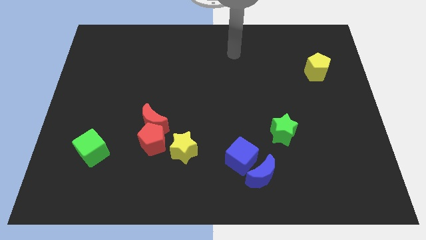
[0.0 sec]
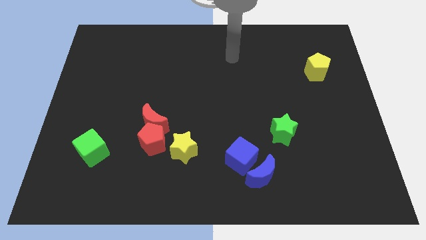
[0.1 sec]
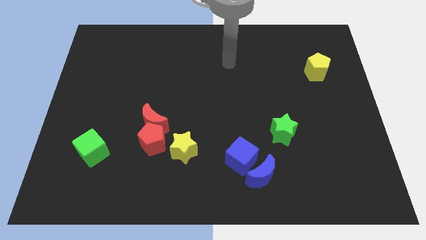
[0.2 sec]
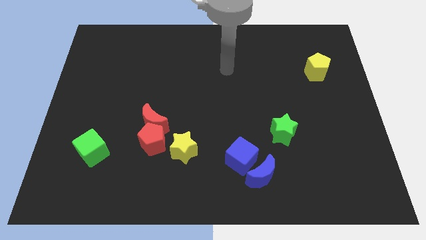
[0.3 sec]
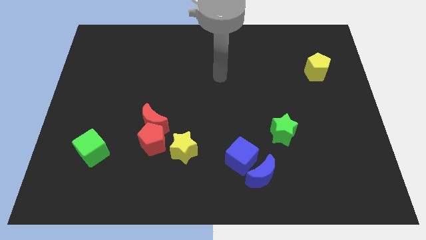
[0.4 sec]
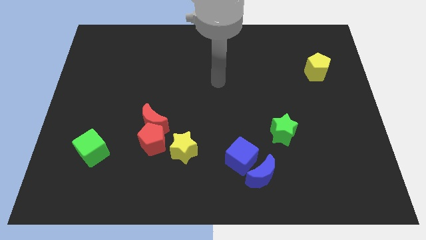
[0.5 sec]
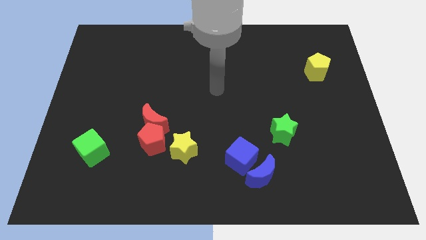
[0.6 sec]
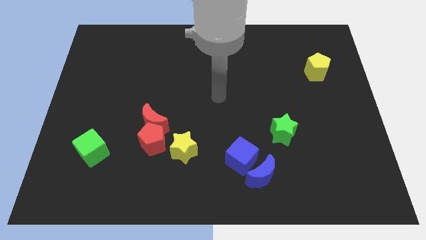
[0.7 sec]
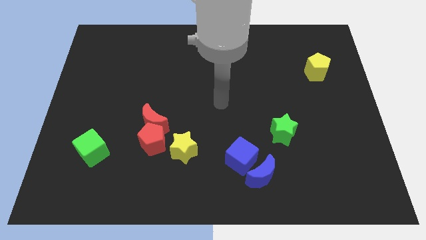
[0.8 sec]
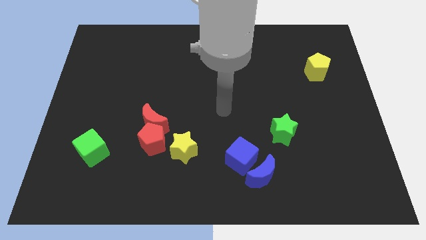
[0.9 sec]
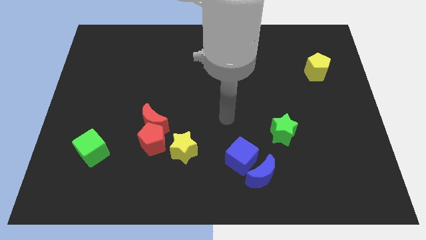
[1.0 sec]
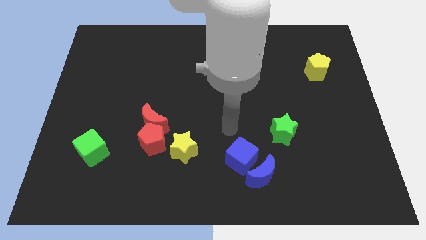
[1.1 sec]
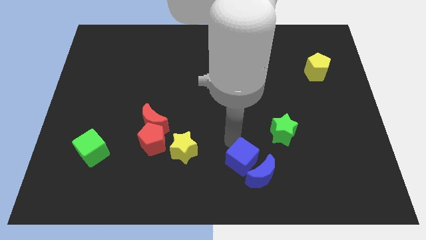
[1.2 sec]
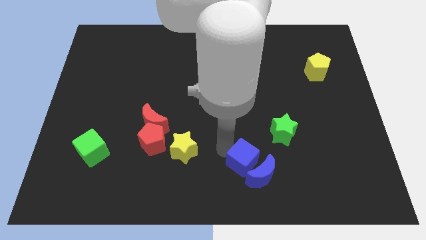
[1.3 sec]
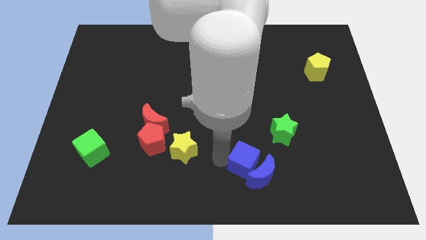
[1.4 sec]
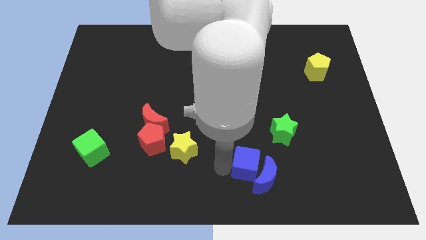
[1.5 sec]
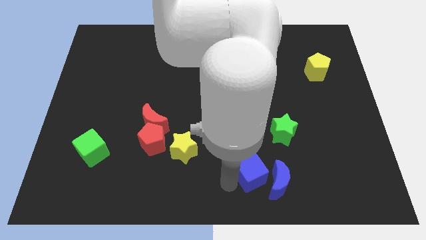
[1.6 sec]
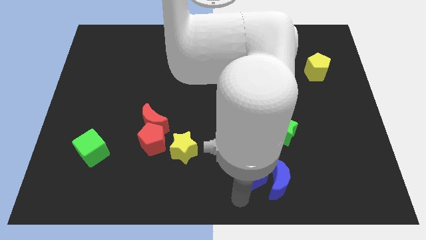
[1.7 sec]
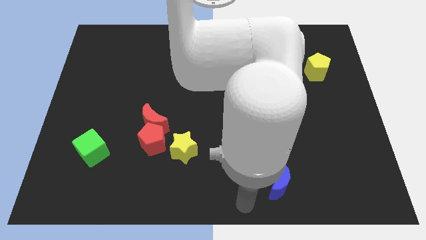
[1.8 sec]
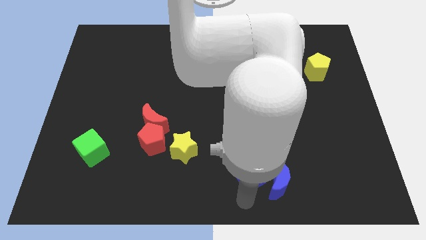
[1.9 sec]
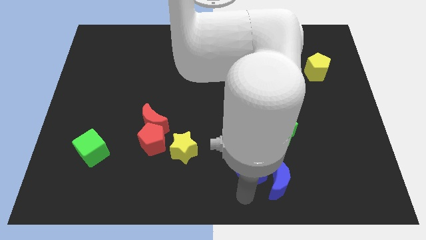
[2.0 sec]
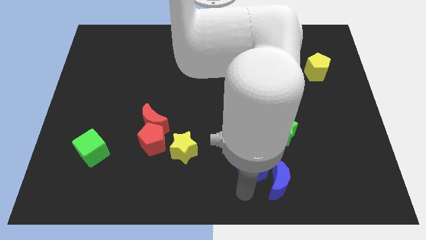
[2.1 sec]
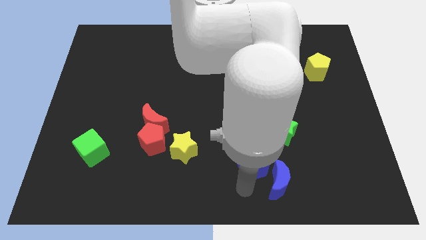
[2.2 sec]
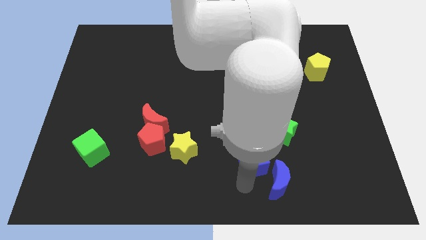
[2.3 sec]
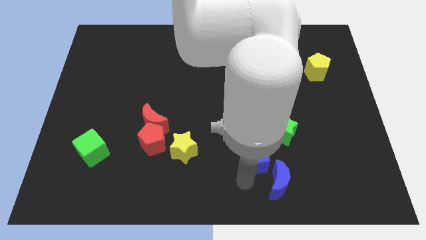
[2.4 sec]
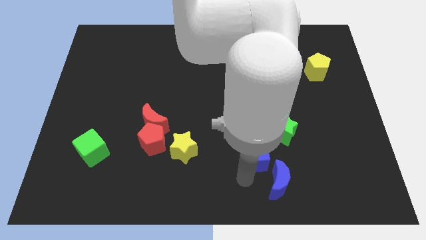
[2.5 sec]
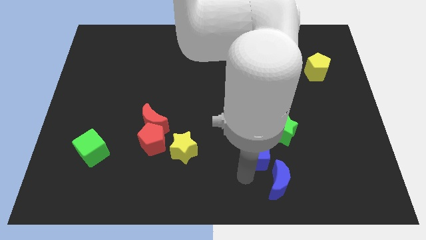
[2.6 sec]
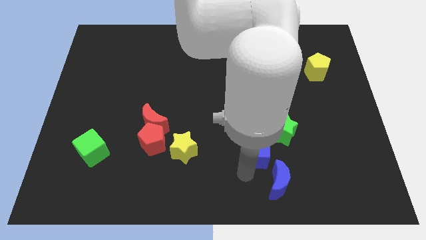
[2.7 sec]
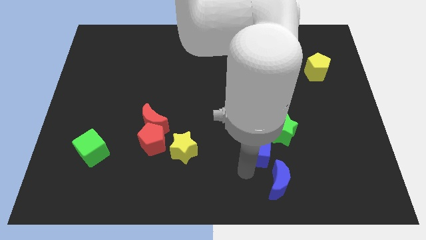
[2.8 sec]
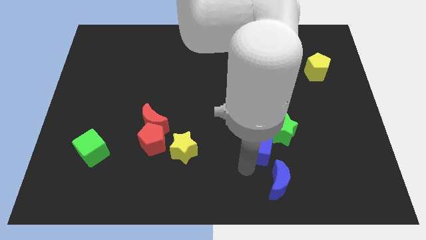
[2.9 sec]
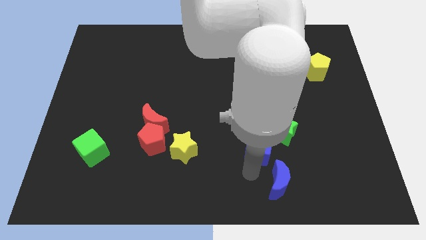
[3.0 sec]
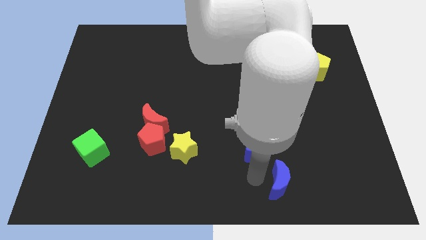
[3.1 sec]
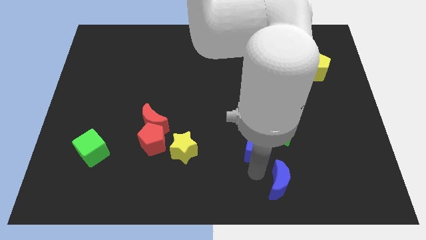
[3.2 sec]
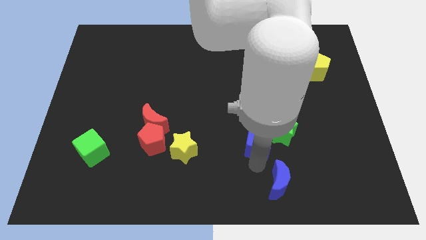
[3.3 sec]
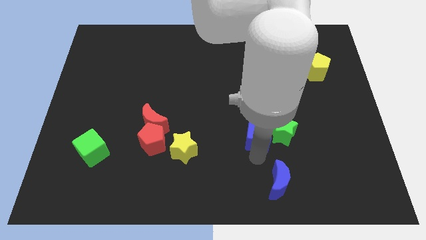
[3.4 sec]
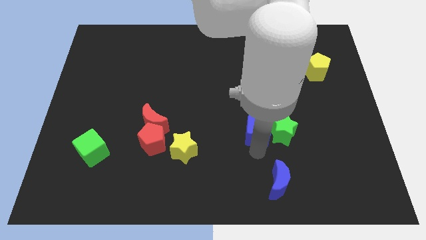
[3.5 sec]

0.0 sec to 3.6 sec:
slide the blue cube diagonally upwards and right slightly

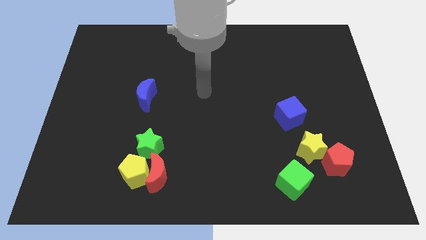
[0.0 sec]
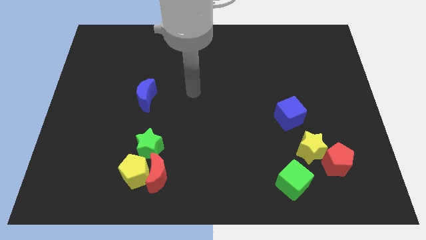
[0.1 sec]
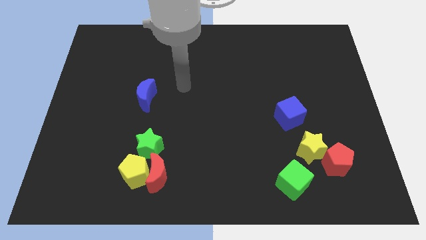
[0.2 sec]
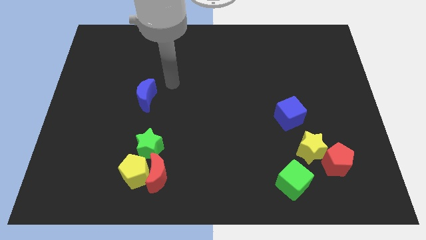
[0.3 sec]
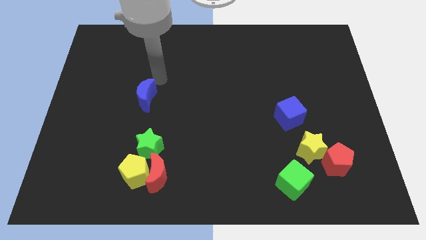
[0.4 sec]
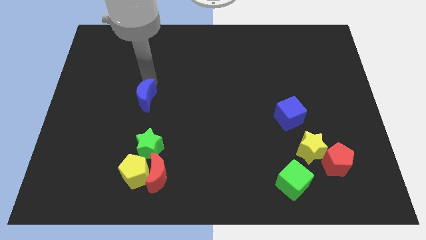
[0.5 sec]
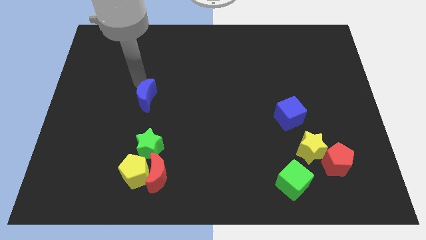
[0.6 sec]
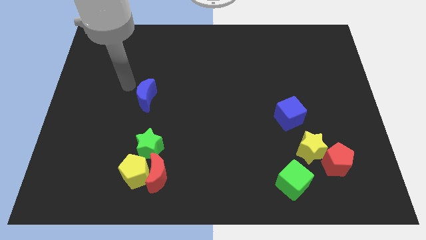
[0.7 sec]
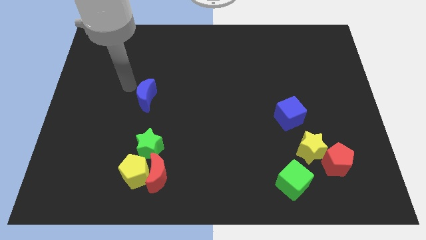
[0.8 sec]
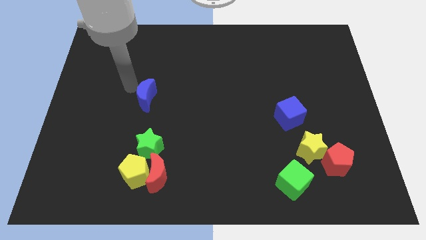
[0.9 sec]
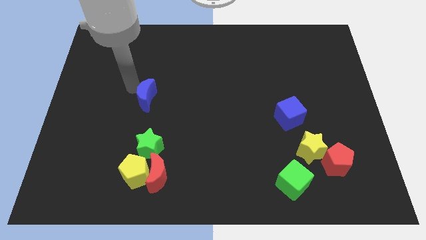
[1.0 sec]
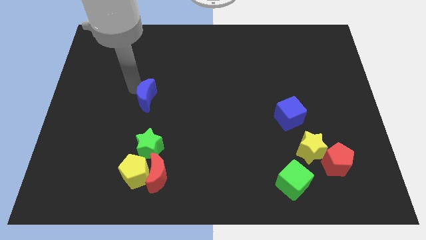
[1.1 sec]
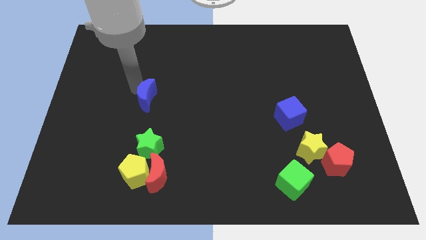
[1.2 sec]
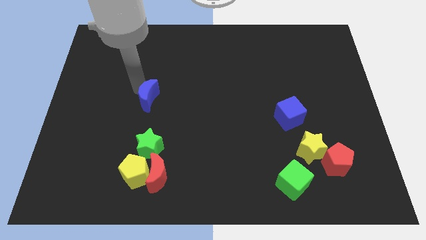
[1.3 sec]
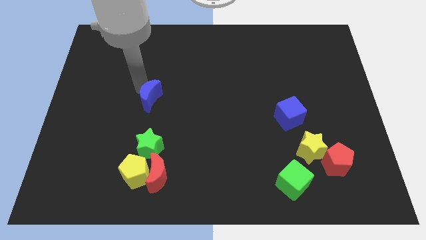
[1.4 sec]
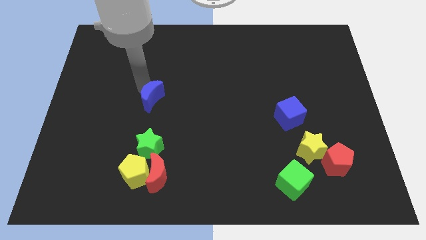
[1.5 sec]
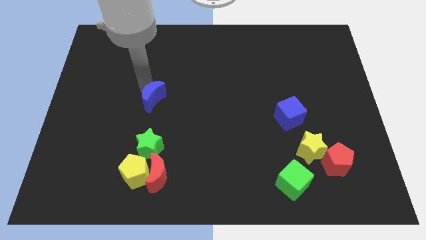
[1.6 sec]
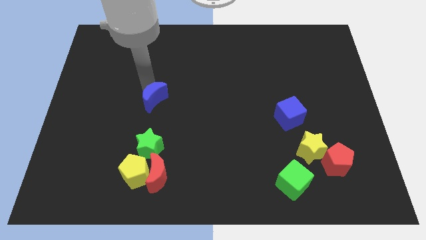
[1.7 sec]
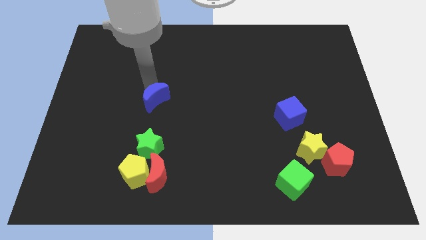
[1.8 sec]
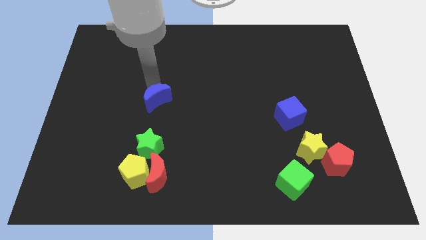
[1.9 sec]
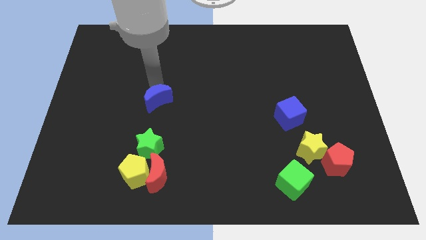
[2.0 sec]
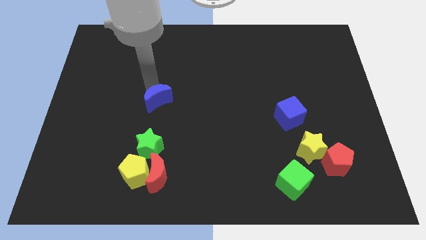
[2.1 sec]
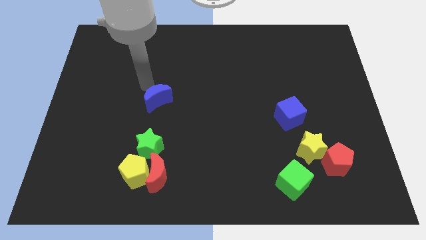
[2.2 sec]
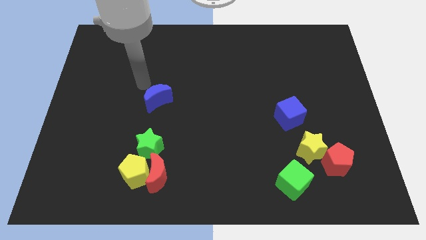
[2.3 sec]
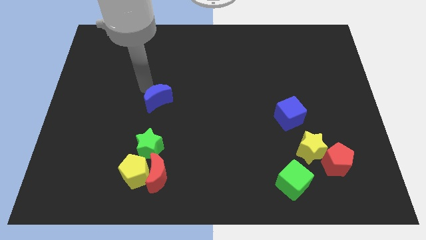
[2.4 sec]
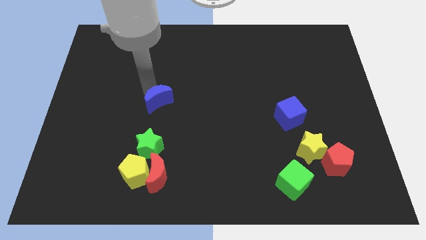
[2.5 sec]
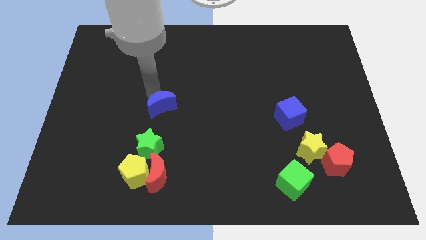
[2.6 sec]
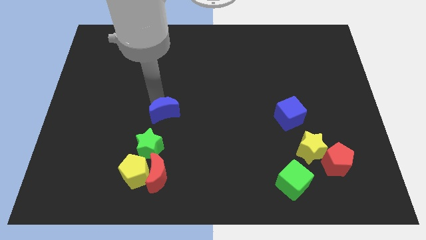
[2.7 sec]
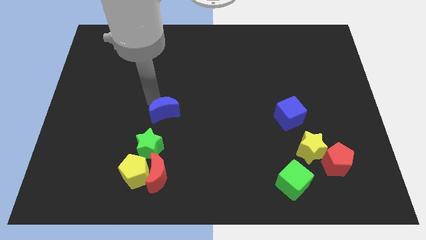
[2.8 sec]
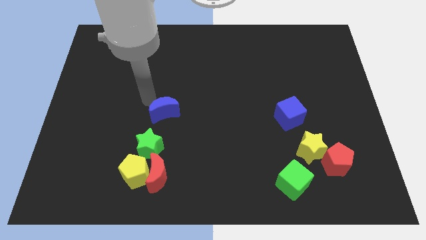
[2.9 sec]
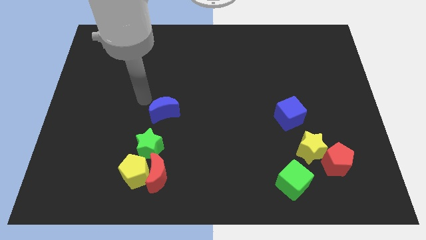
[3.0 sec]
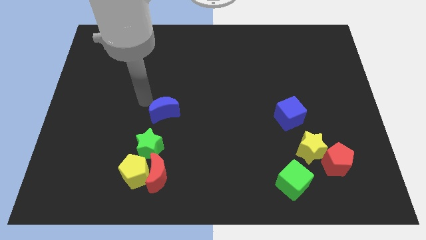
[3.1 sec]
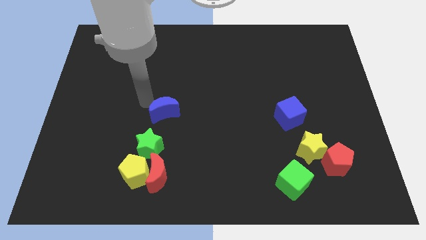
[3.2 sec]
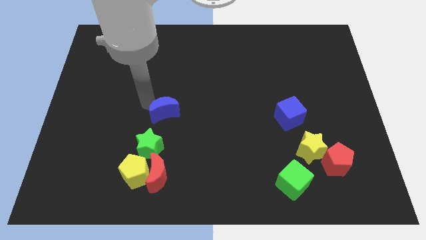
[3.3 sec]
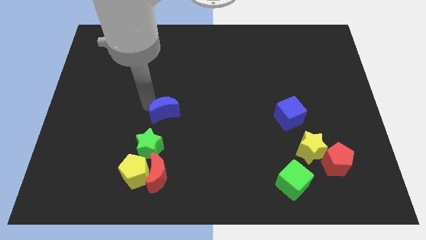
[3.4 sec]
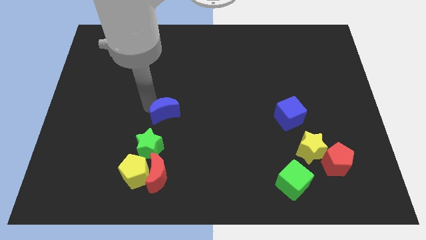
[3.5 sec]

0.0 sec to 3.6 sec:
slightly slide the blue moon downwards and then to the right

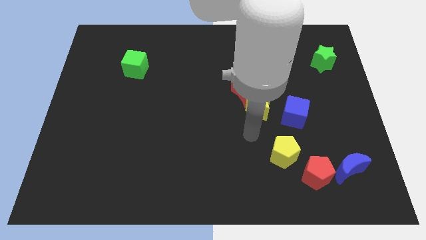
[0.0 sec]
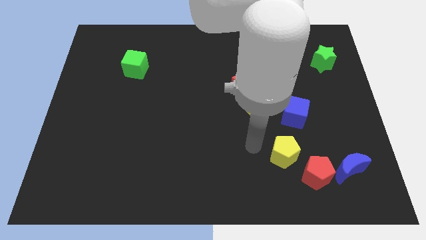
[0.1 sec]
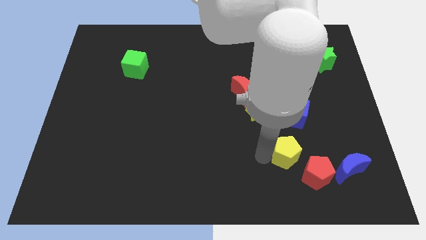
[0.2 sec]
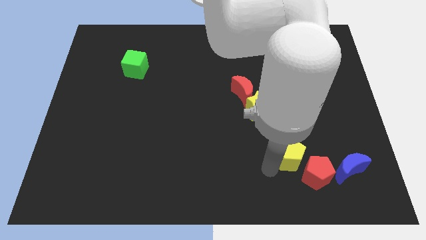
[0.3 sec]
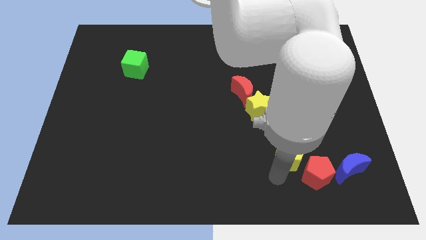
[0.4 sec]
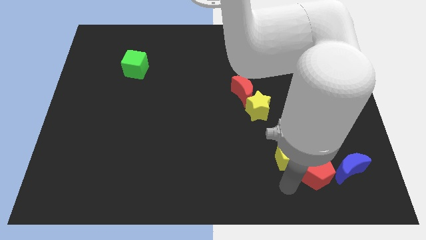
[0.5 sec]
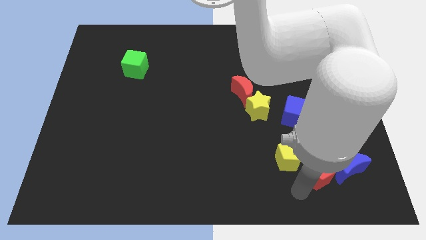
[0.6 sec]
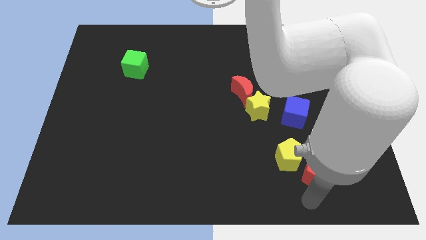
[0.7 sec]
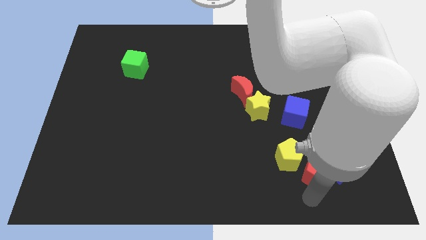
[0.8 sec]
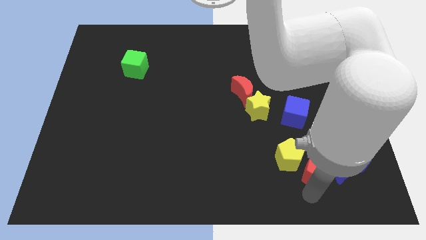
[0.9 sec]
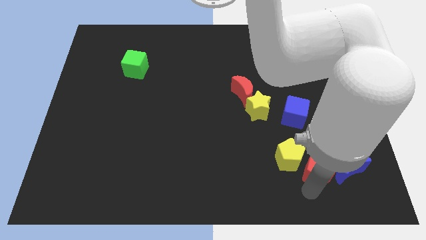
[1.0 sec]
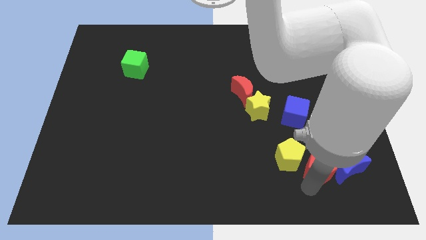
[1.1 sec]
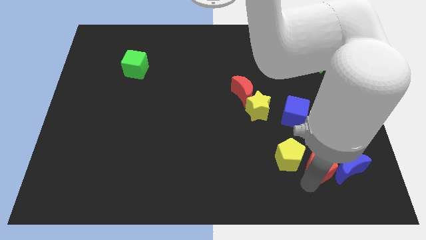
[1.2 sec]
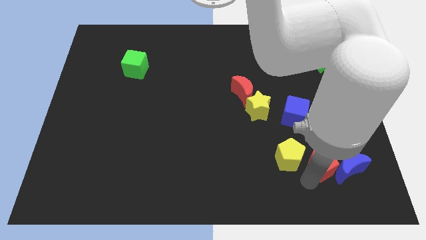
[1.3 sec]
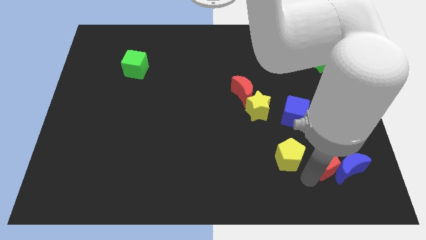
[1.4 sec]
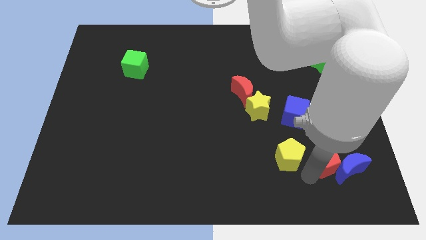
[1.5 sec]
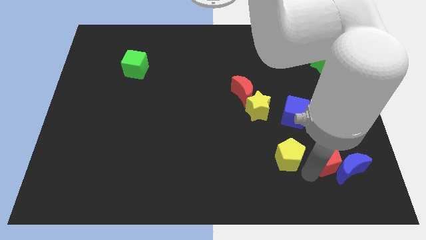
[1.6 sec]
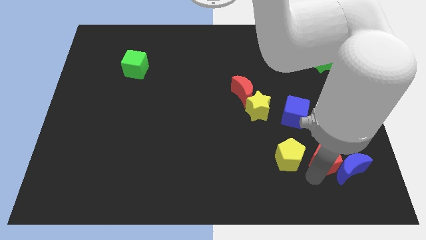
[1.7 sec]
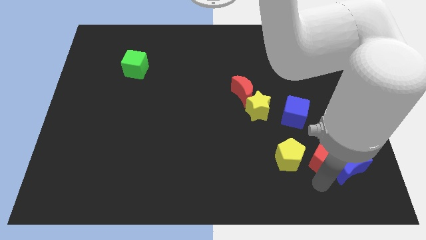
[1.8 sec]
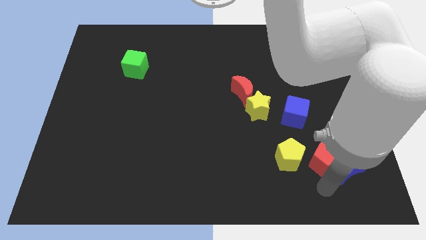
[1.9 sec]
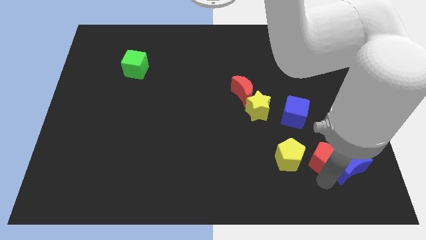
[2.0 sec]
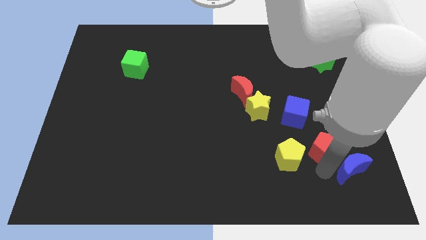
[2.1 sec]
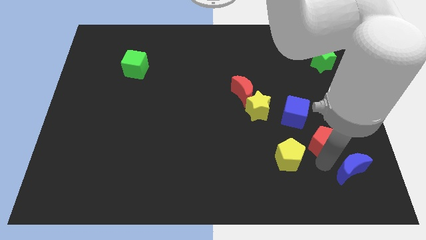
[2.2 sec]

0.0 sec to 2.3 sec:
push the red pentagon a little bit upwards
